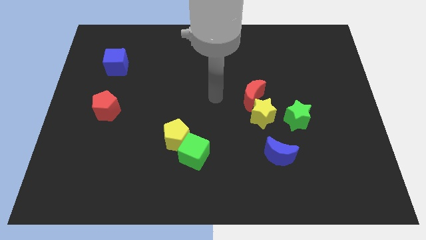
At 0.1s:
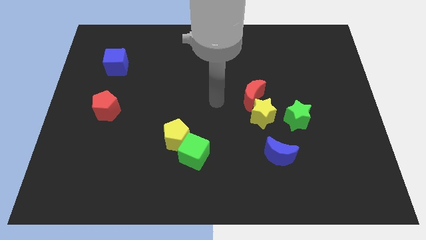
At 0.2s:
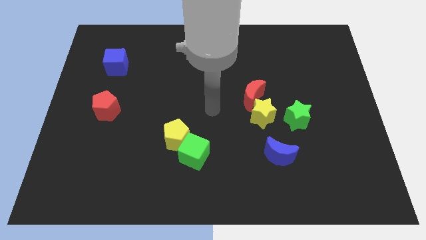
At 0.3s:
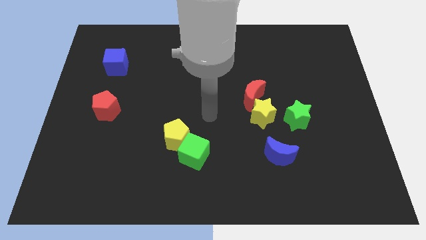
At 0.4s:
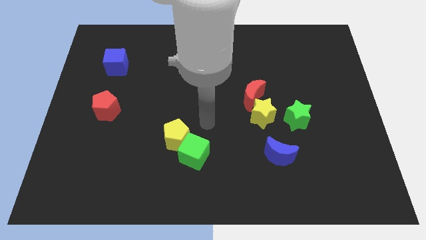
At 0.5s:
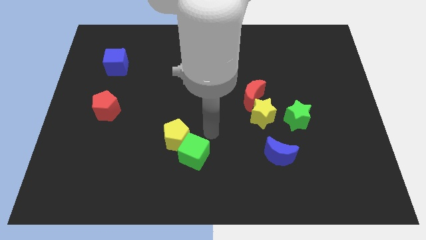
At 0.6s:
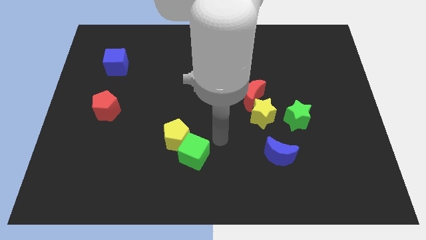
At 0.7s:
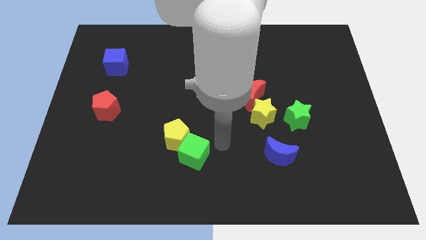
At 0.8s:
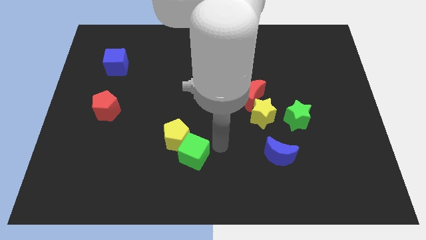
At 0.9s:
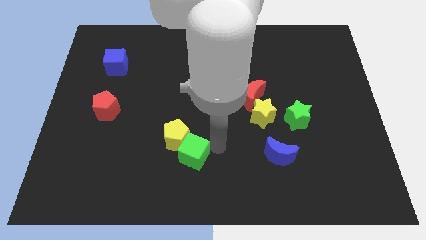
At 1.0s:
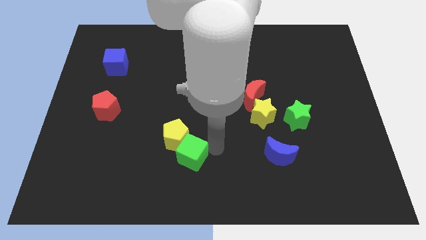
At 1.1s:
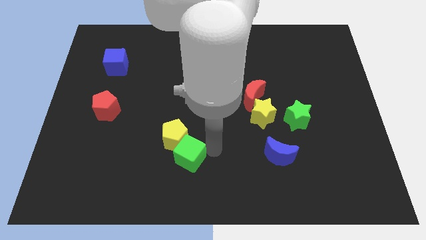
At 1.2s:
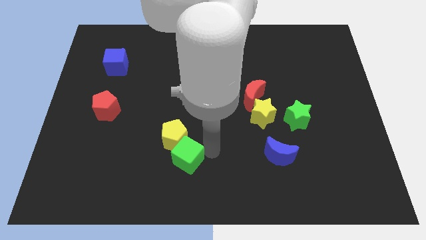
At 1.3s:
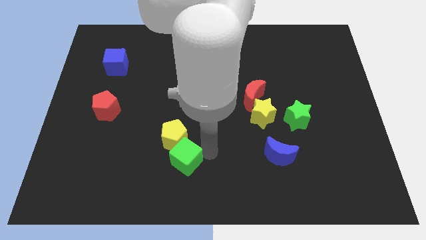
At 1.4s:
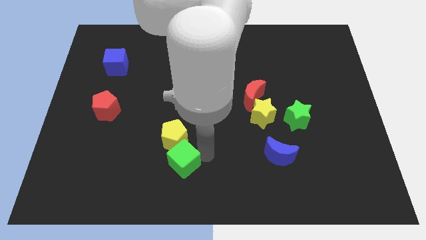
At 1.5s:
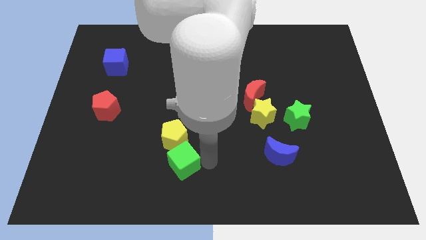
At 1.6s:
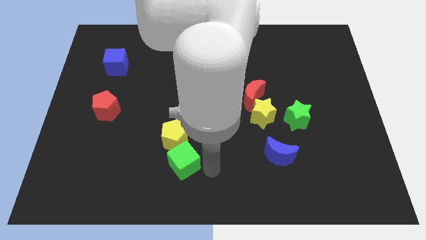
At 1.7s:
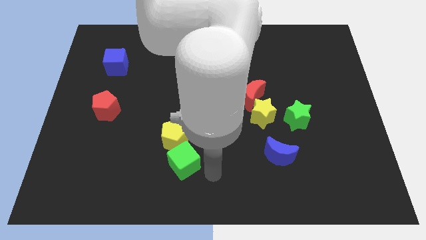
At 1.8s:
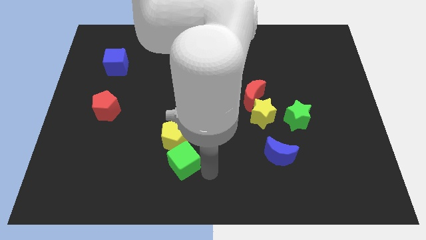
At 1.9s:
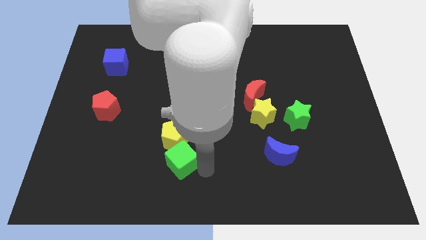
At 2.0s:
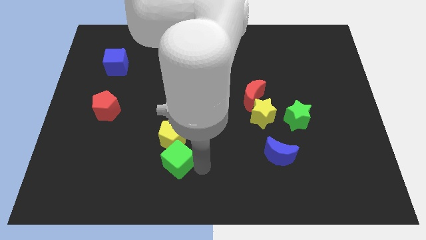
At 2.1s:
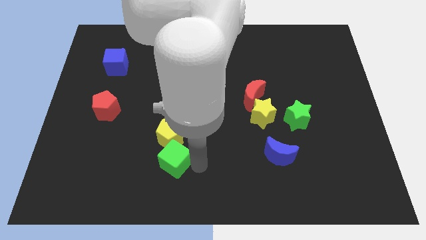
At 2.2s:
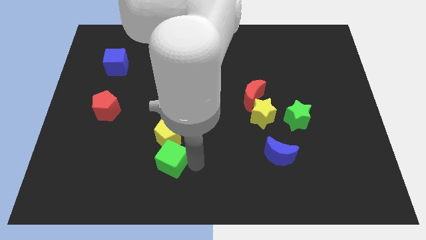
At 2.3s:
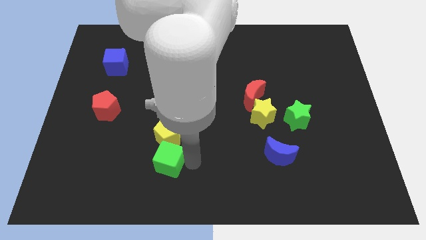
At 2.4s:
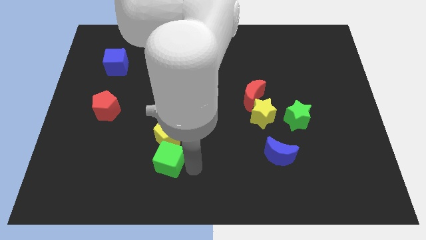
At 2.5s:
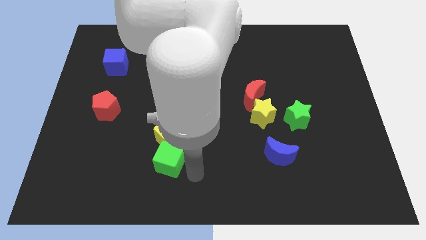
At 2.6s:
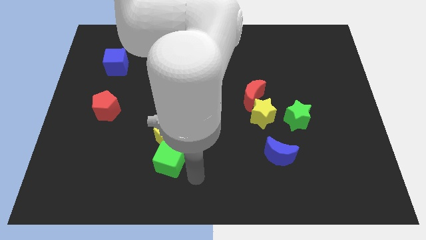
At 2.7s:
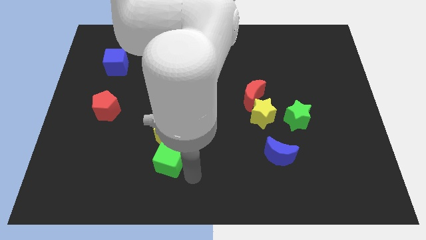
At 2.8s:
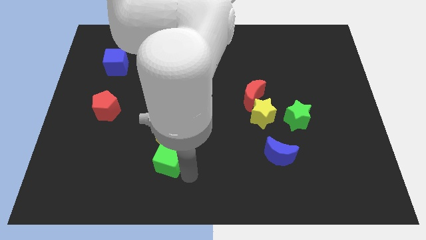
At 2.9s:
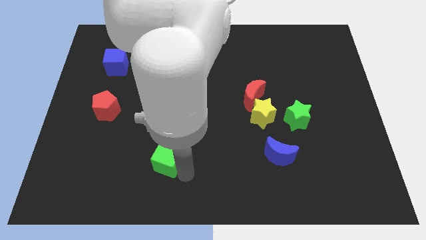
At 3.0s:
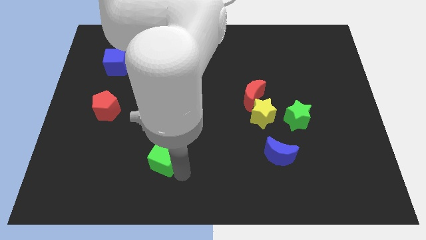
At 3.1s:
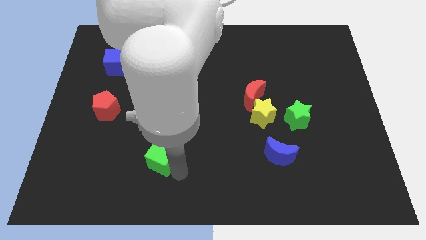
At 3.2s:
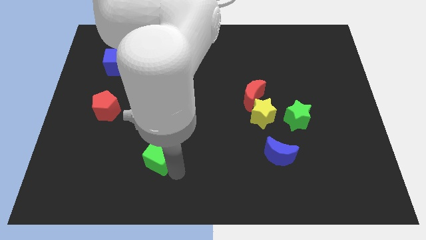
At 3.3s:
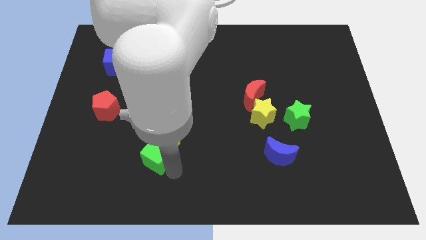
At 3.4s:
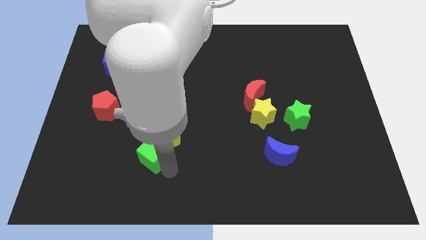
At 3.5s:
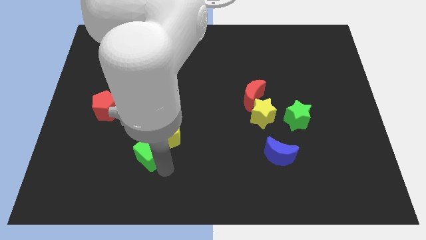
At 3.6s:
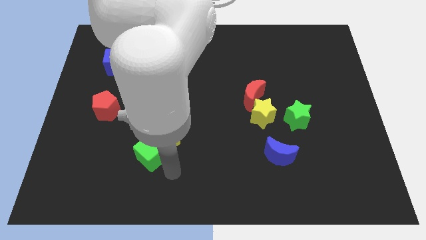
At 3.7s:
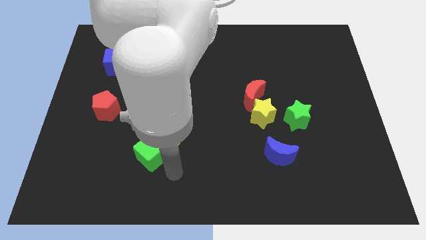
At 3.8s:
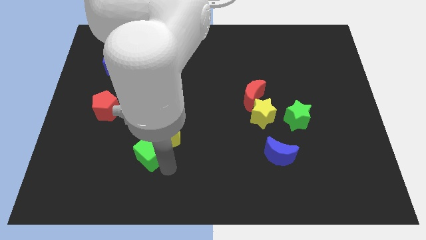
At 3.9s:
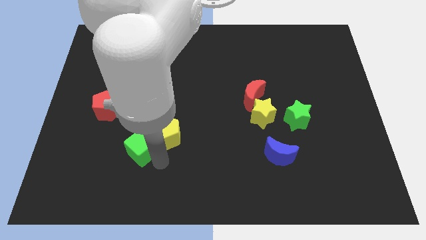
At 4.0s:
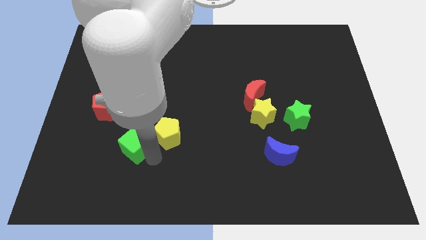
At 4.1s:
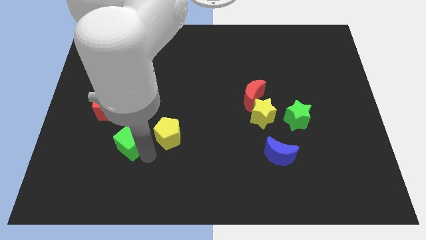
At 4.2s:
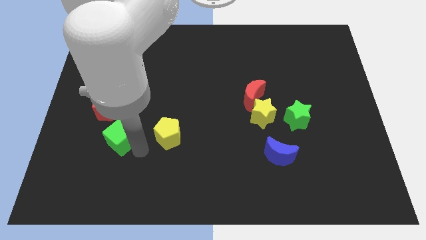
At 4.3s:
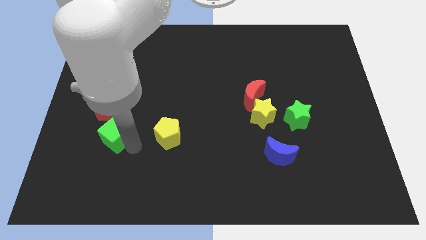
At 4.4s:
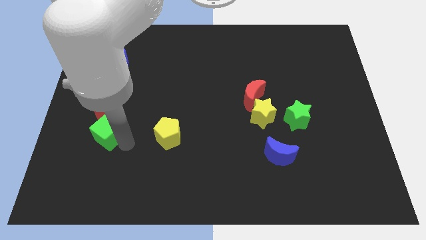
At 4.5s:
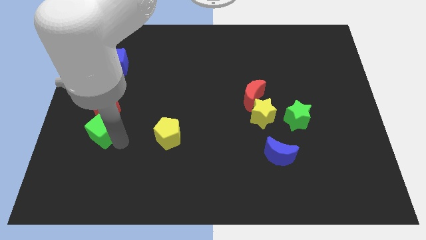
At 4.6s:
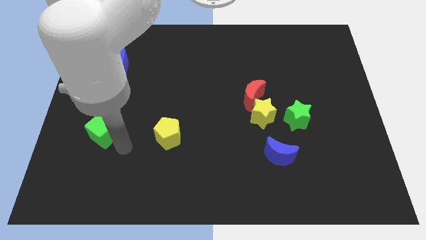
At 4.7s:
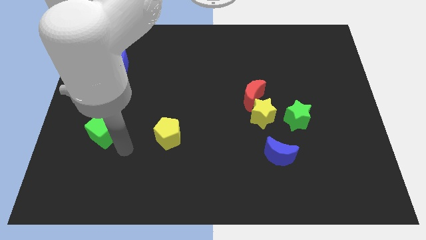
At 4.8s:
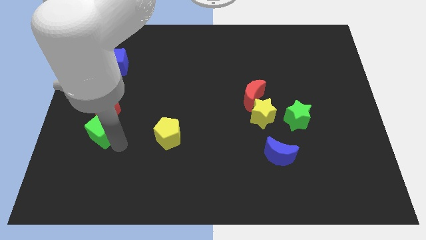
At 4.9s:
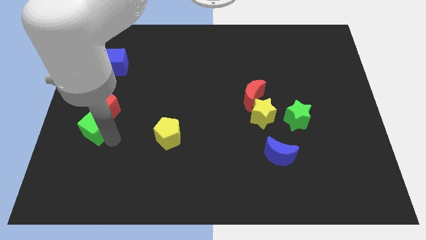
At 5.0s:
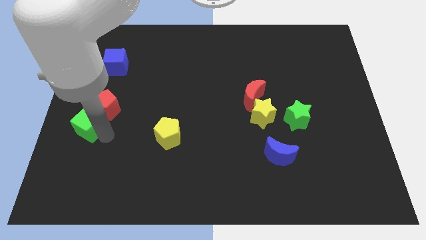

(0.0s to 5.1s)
move the green cube to the left side

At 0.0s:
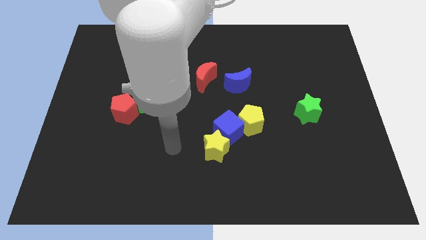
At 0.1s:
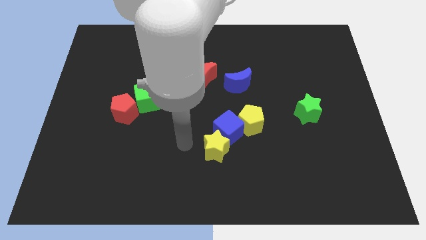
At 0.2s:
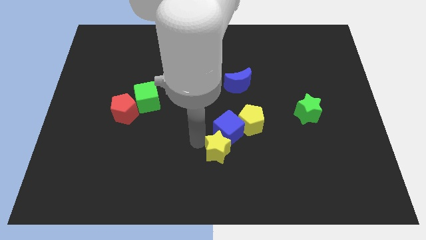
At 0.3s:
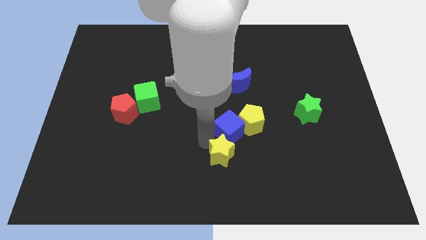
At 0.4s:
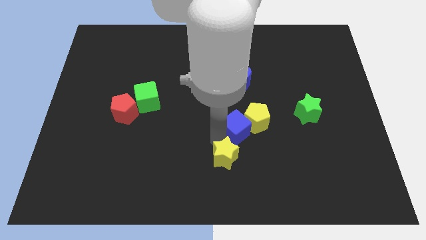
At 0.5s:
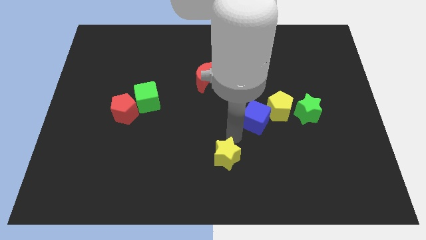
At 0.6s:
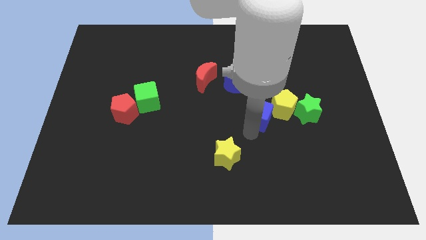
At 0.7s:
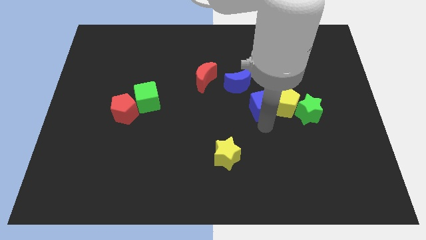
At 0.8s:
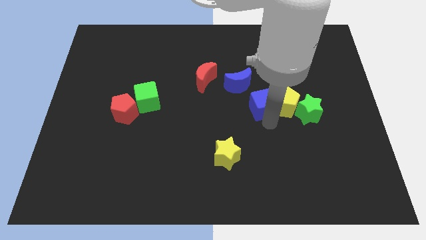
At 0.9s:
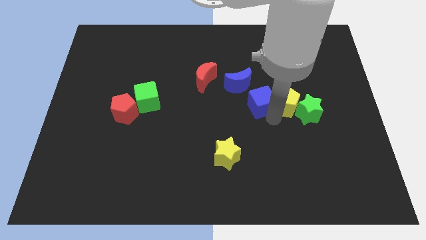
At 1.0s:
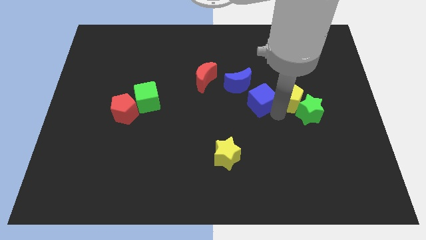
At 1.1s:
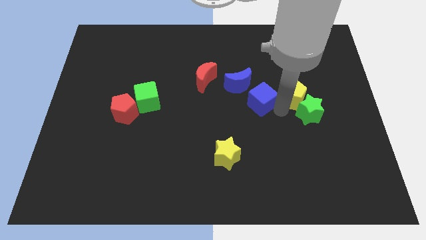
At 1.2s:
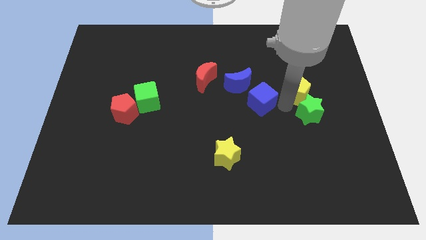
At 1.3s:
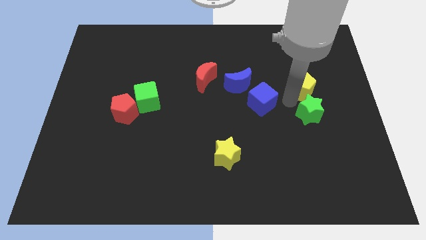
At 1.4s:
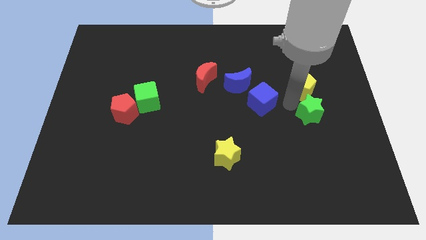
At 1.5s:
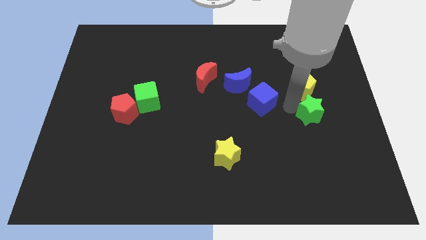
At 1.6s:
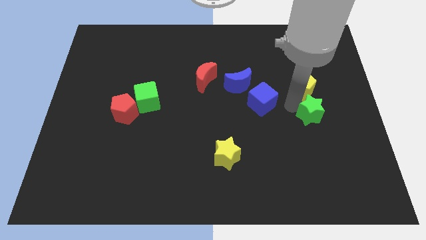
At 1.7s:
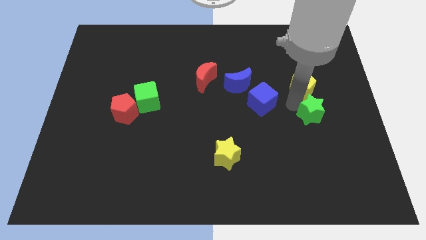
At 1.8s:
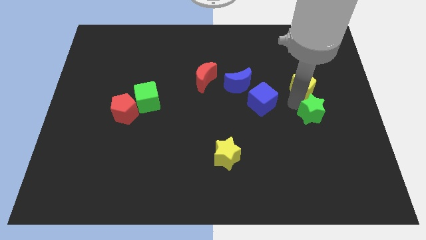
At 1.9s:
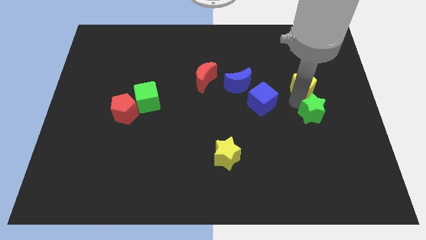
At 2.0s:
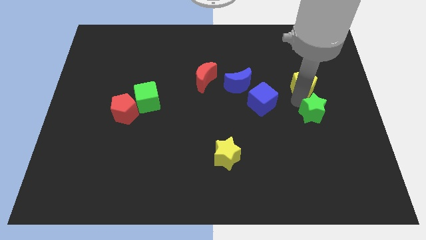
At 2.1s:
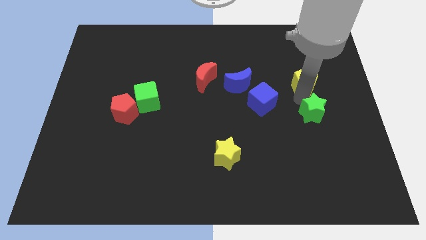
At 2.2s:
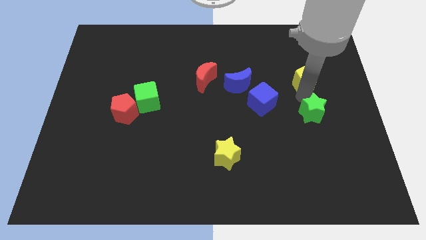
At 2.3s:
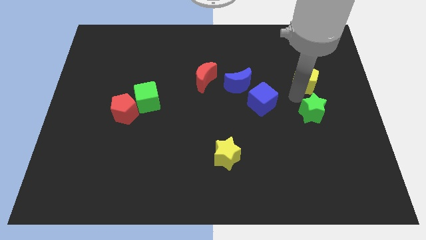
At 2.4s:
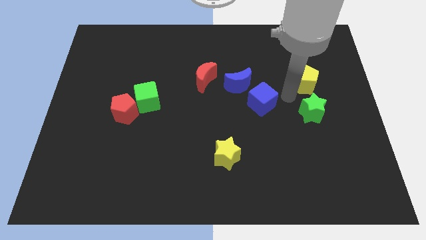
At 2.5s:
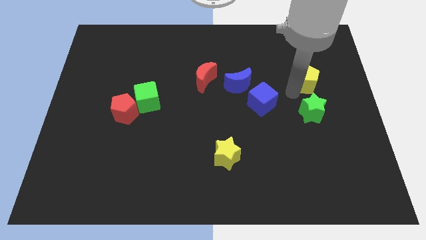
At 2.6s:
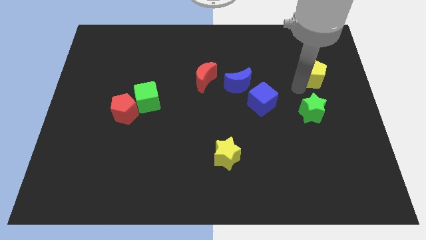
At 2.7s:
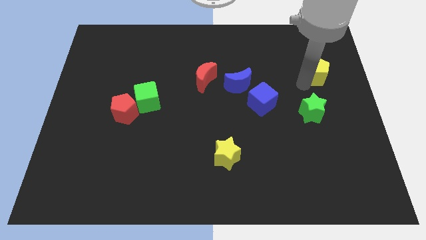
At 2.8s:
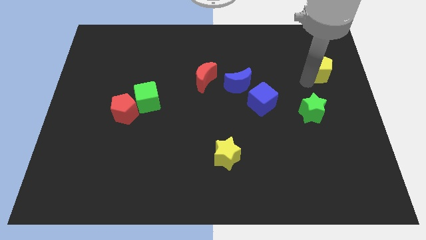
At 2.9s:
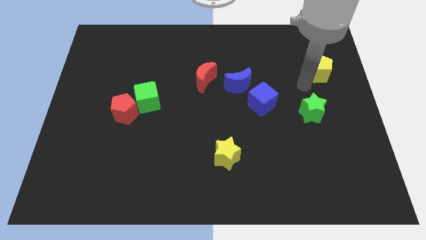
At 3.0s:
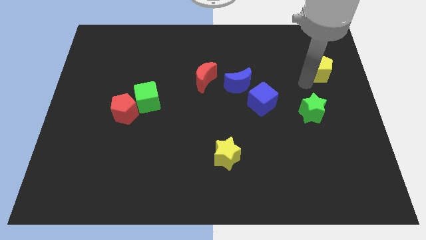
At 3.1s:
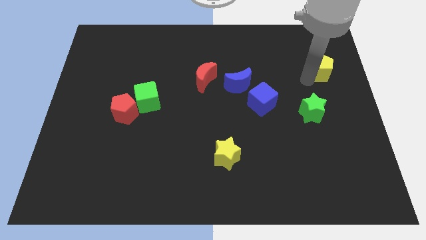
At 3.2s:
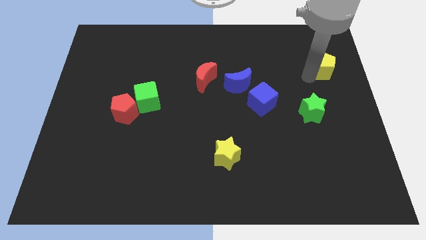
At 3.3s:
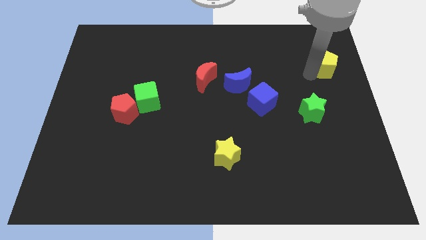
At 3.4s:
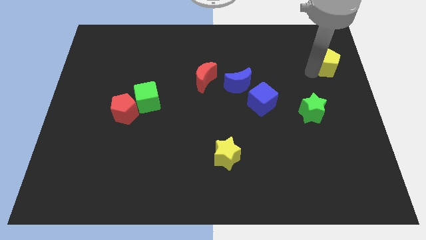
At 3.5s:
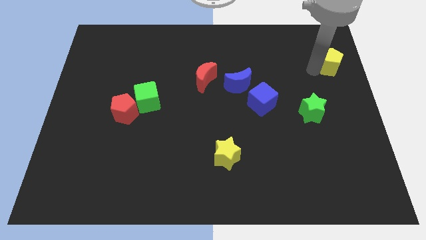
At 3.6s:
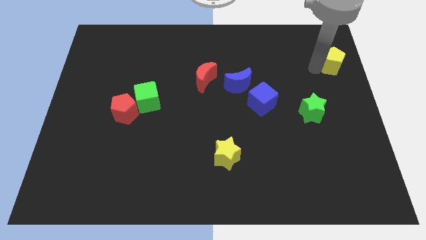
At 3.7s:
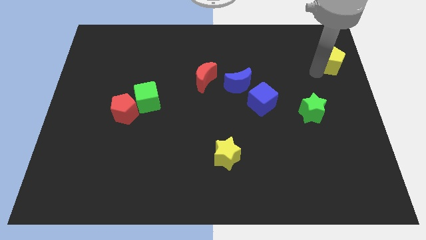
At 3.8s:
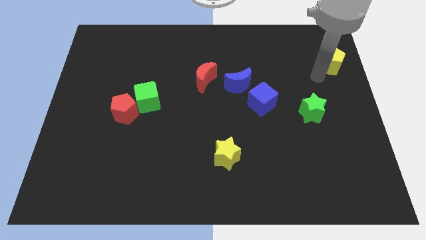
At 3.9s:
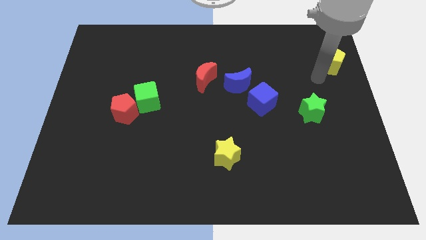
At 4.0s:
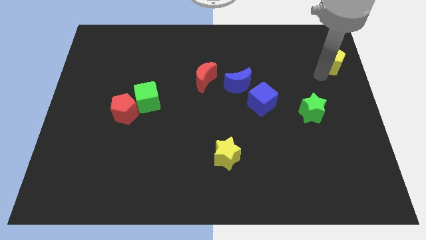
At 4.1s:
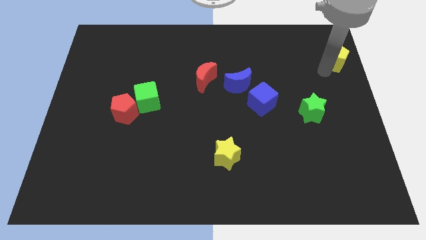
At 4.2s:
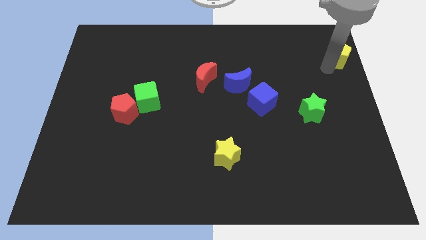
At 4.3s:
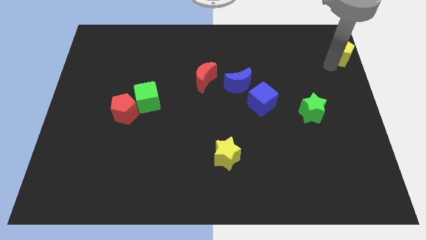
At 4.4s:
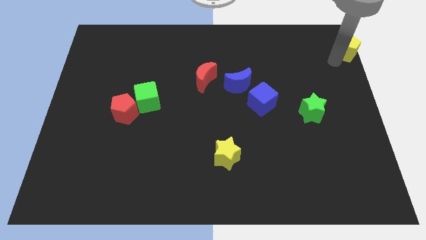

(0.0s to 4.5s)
push the yellow pentagon to the top right
